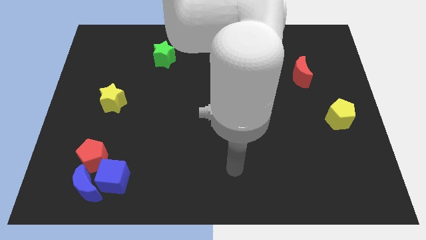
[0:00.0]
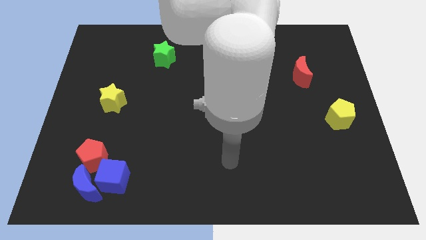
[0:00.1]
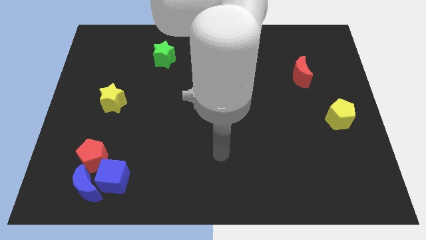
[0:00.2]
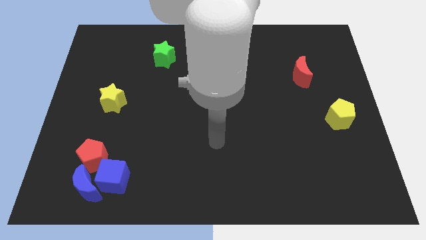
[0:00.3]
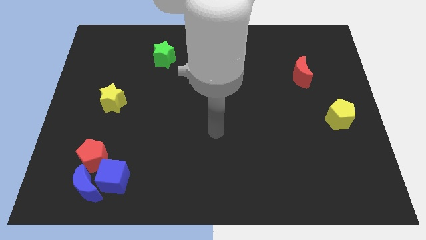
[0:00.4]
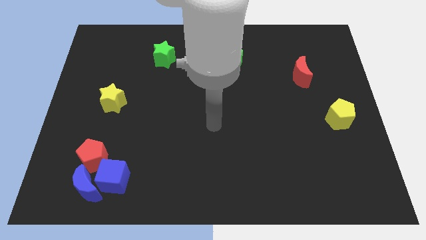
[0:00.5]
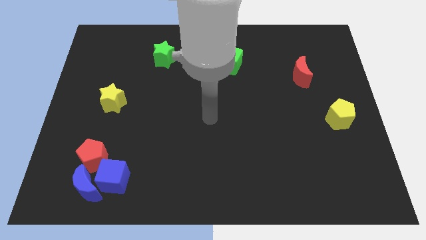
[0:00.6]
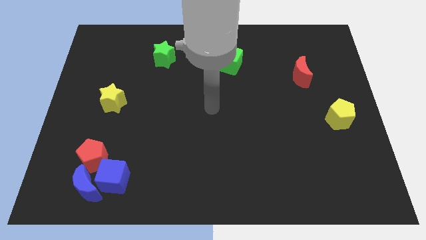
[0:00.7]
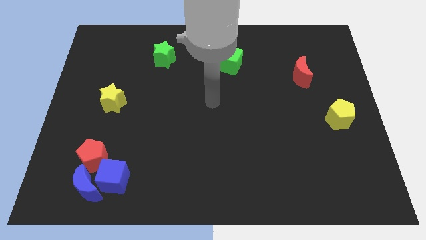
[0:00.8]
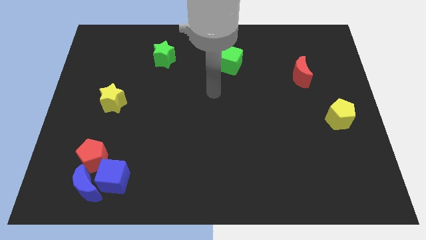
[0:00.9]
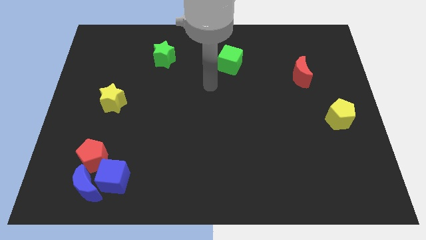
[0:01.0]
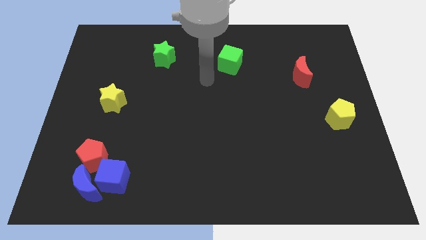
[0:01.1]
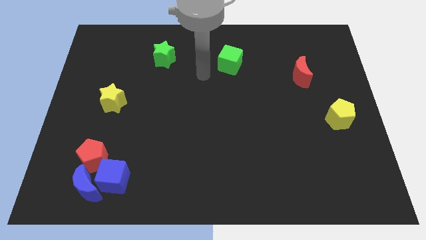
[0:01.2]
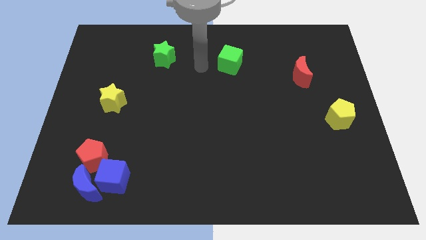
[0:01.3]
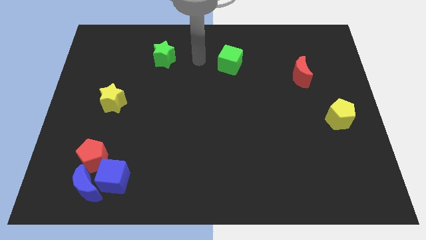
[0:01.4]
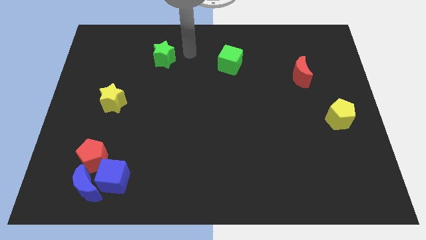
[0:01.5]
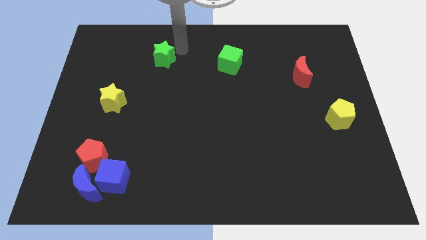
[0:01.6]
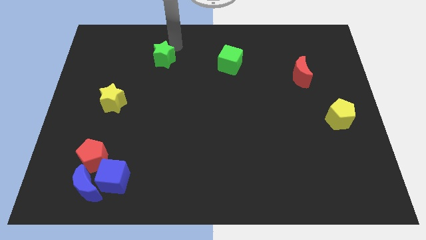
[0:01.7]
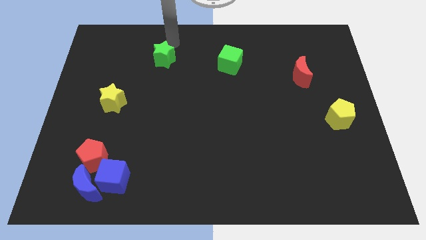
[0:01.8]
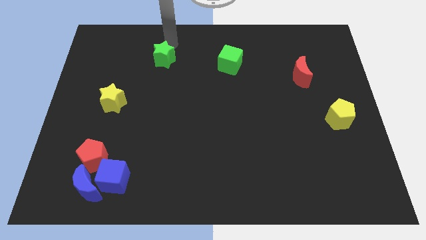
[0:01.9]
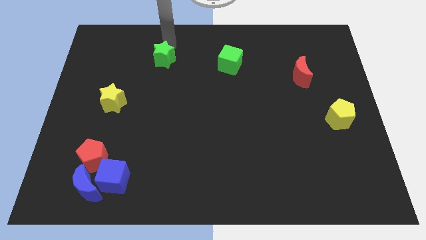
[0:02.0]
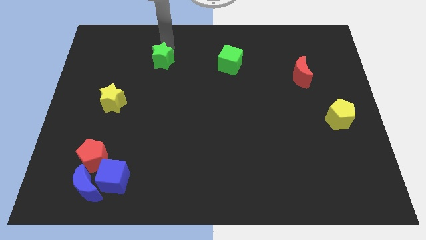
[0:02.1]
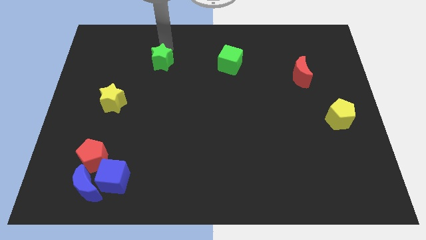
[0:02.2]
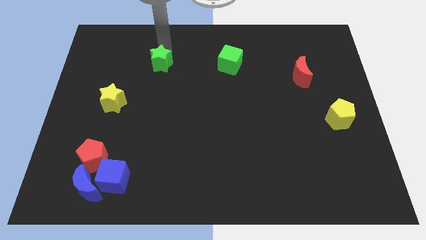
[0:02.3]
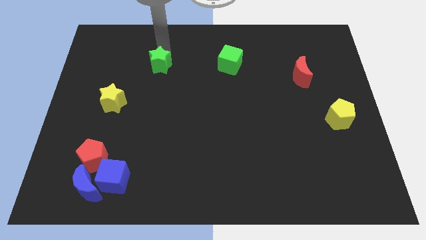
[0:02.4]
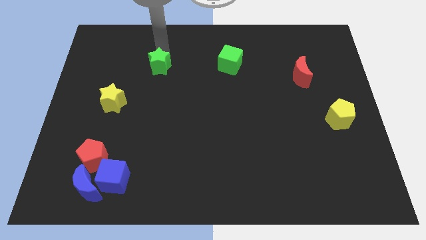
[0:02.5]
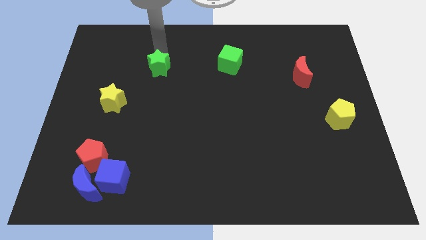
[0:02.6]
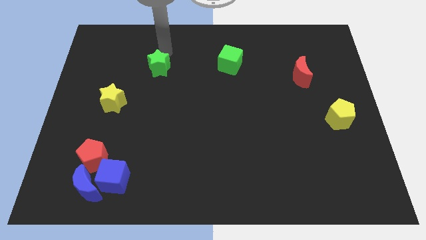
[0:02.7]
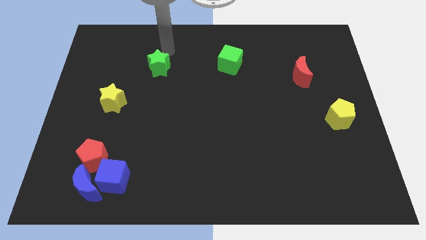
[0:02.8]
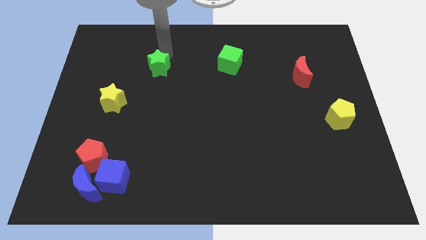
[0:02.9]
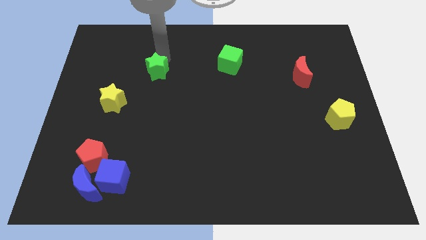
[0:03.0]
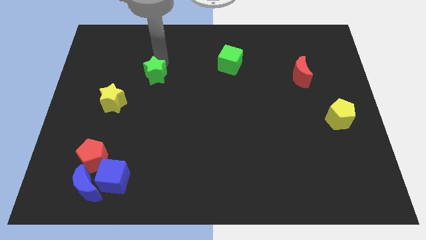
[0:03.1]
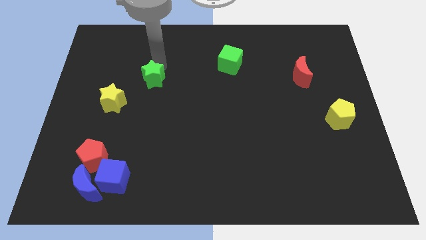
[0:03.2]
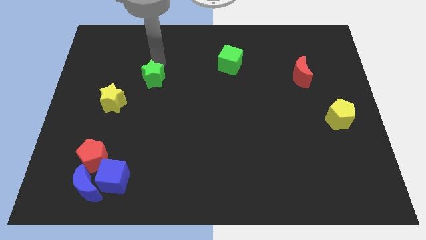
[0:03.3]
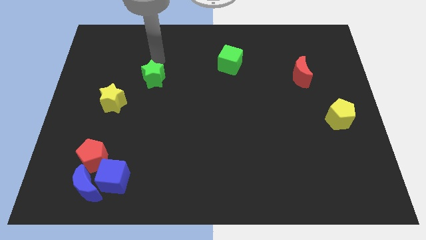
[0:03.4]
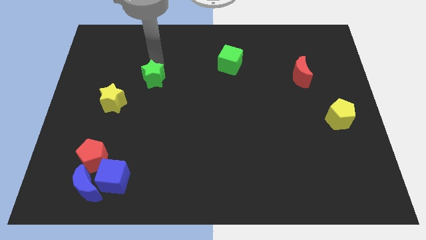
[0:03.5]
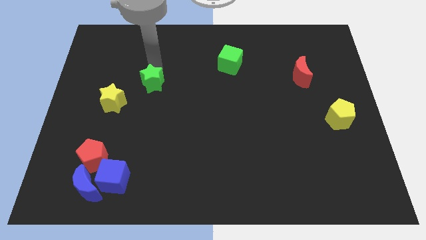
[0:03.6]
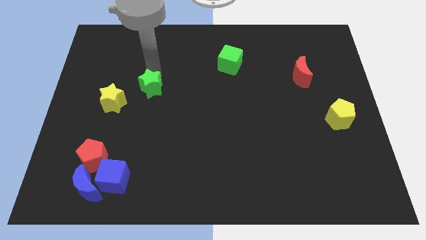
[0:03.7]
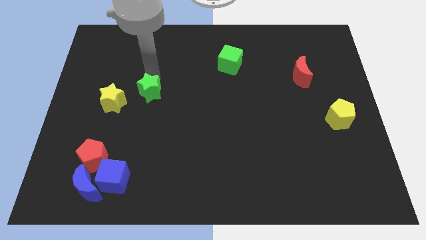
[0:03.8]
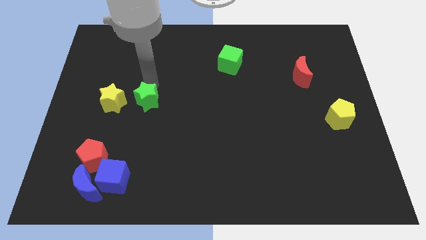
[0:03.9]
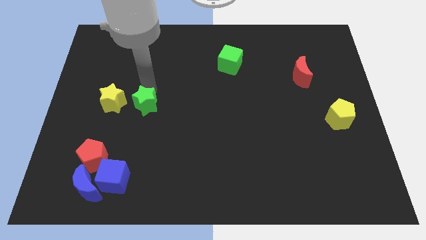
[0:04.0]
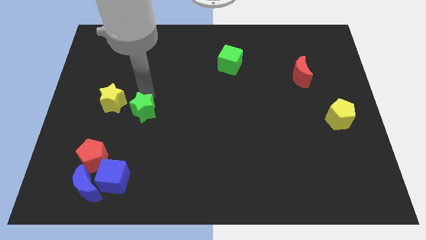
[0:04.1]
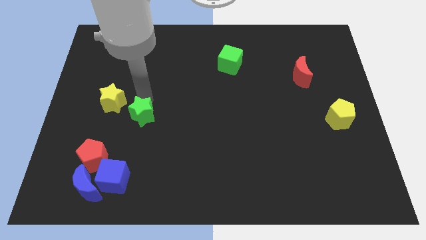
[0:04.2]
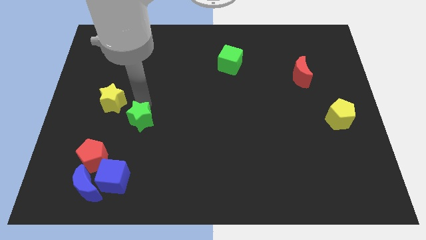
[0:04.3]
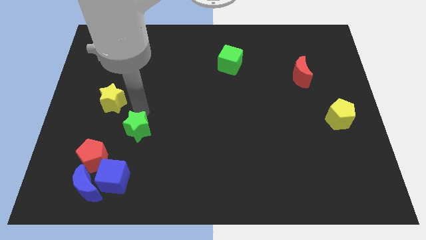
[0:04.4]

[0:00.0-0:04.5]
move the green star down

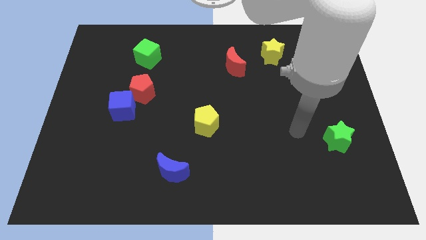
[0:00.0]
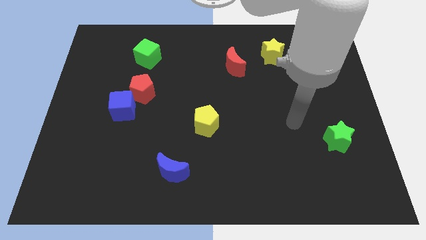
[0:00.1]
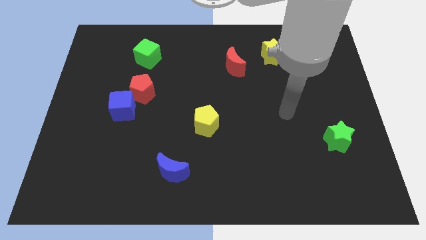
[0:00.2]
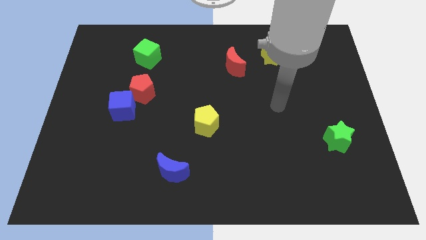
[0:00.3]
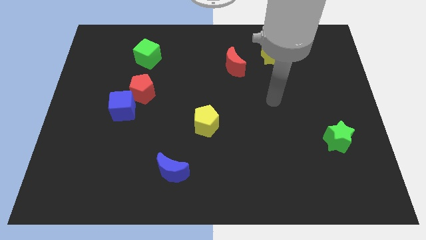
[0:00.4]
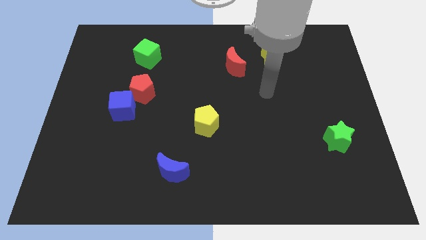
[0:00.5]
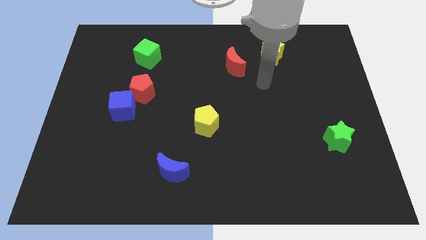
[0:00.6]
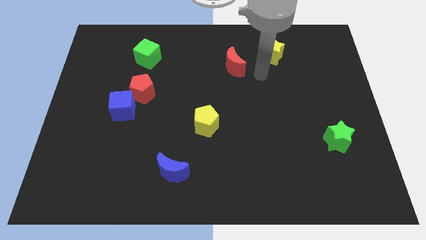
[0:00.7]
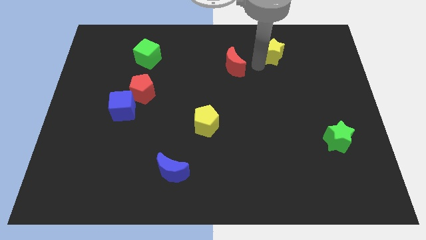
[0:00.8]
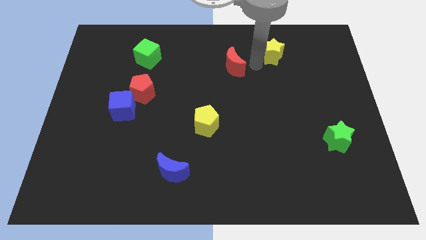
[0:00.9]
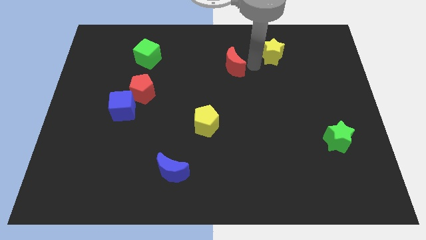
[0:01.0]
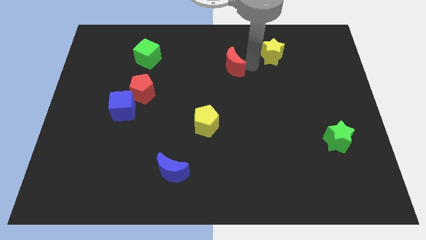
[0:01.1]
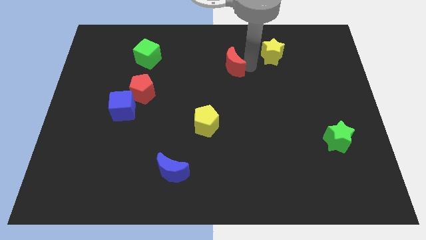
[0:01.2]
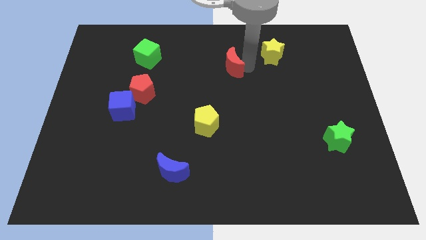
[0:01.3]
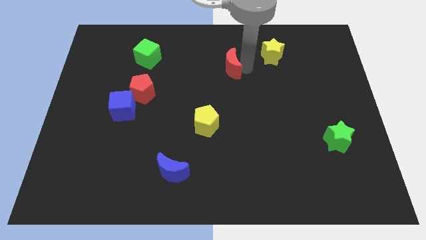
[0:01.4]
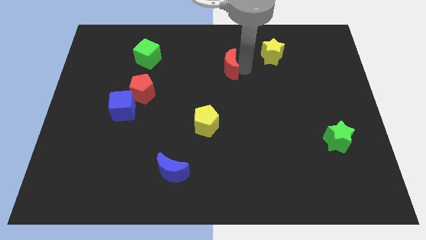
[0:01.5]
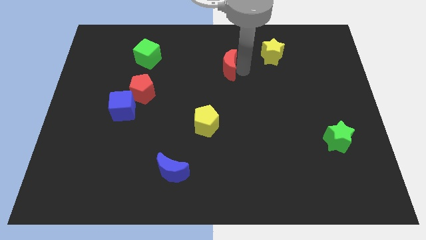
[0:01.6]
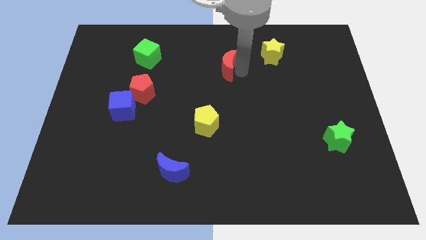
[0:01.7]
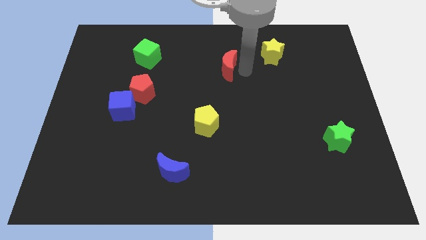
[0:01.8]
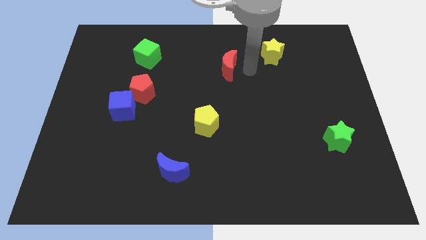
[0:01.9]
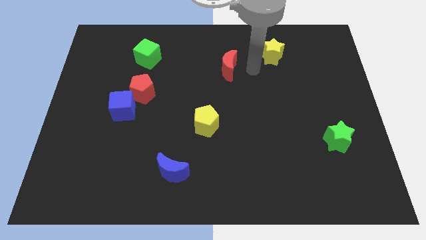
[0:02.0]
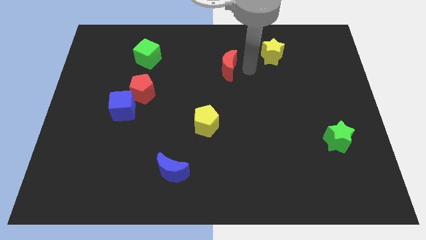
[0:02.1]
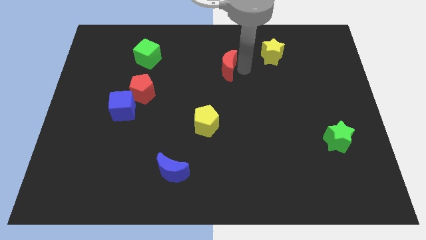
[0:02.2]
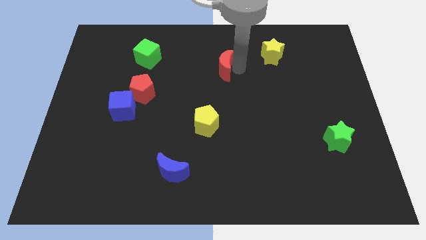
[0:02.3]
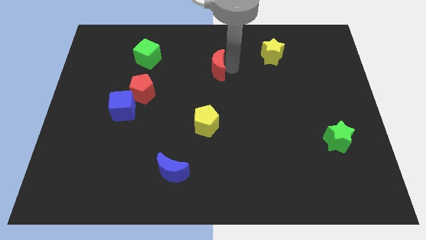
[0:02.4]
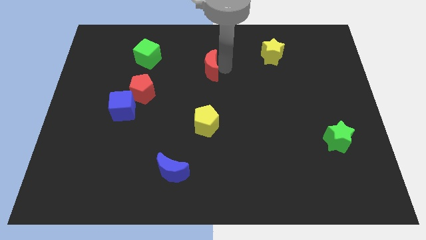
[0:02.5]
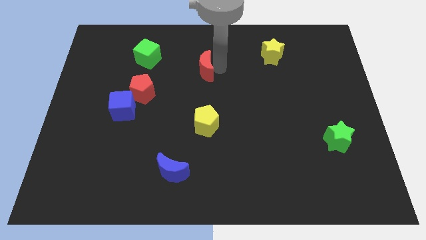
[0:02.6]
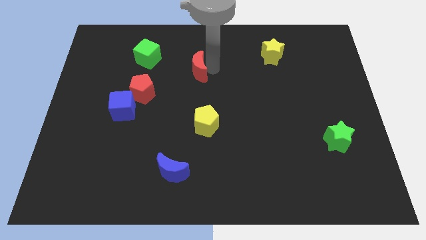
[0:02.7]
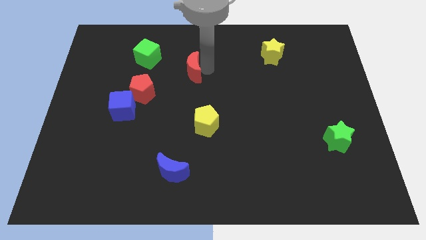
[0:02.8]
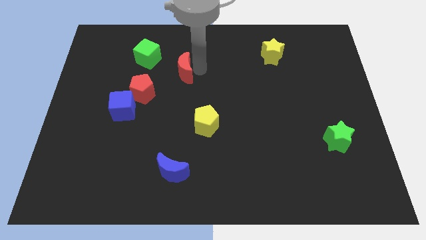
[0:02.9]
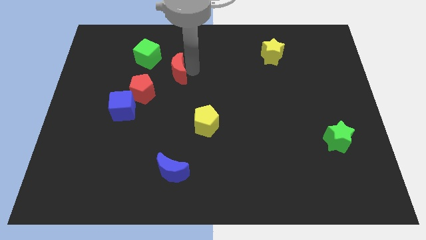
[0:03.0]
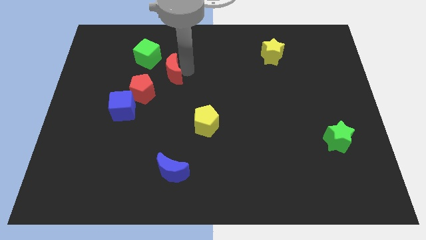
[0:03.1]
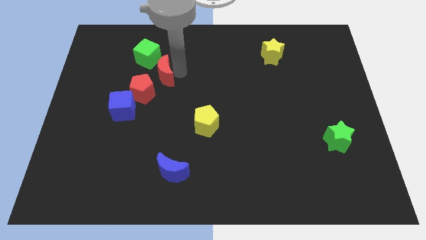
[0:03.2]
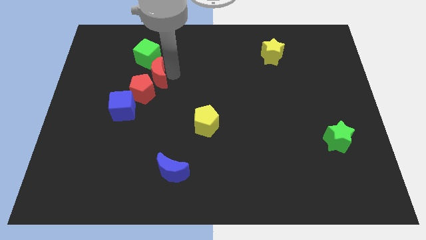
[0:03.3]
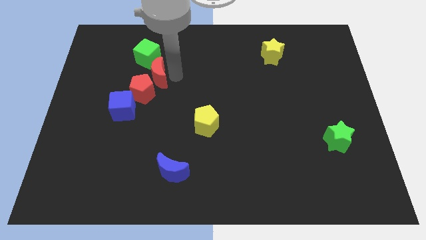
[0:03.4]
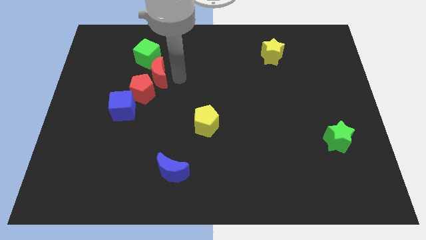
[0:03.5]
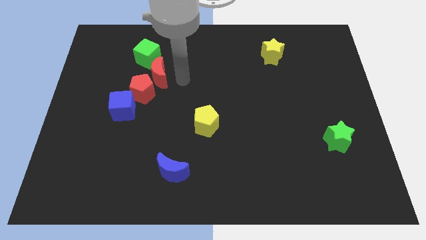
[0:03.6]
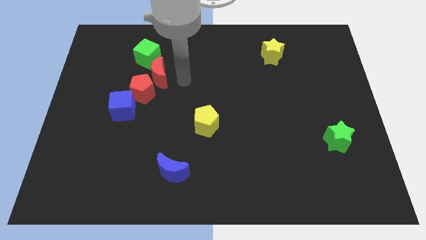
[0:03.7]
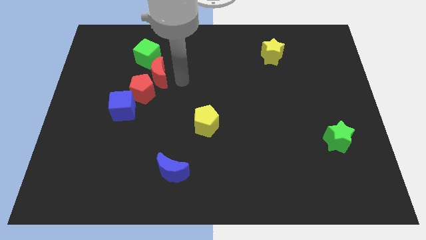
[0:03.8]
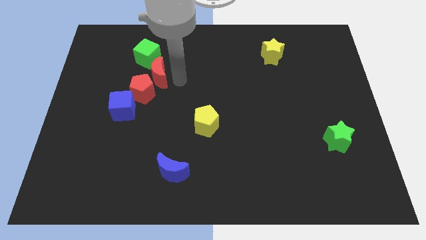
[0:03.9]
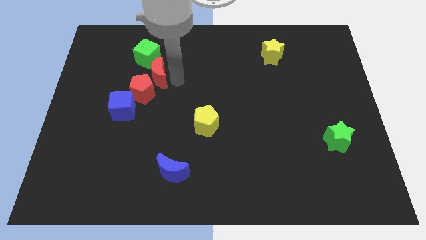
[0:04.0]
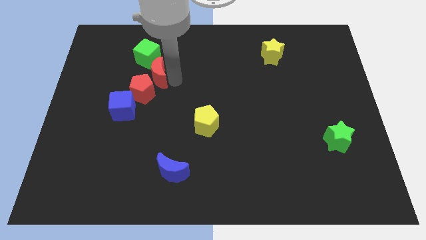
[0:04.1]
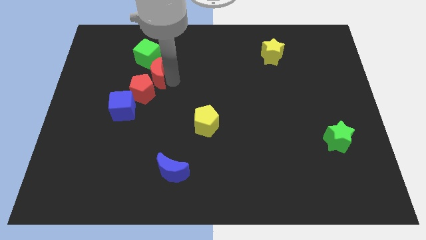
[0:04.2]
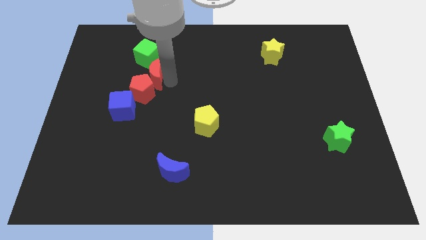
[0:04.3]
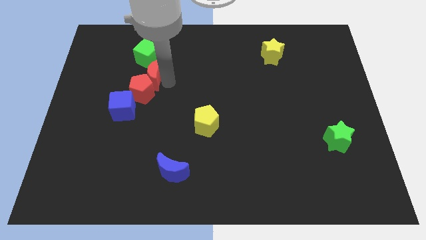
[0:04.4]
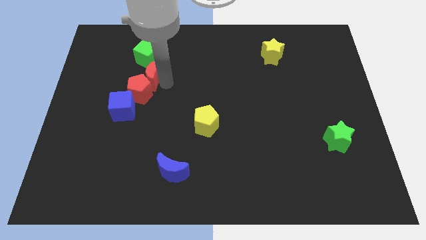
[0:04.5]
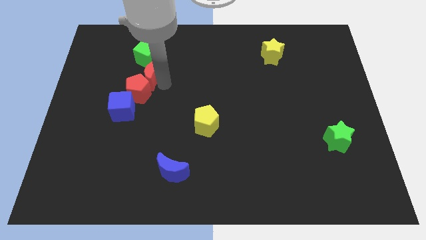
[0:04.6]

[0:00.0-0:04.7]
push the red moon to the left
